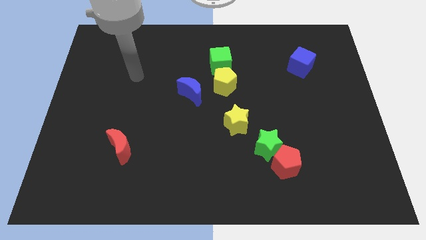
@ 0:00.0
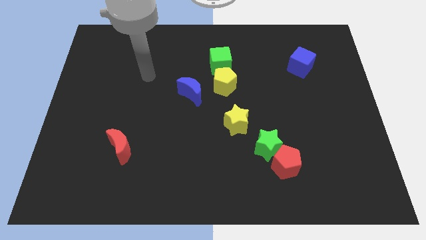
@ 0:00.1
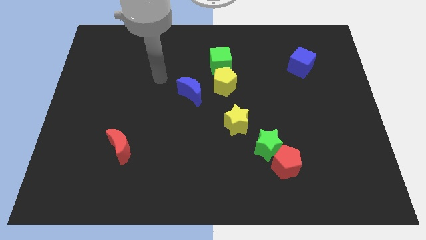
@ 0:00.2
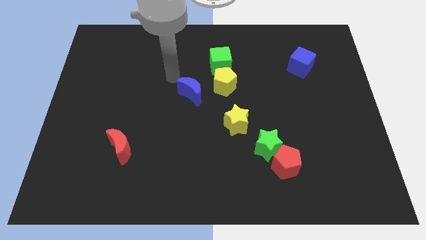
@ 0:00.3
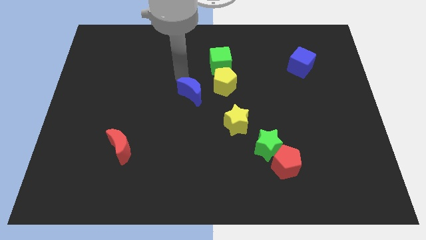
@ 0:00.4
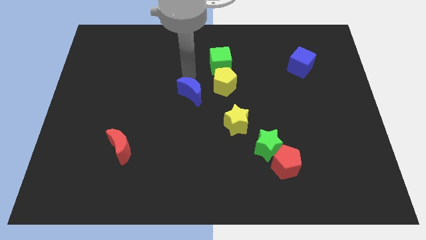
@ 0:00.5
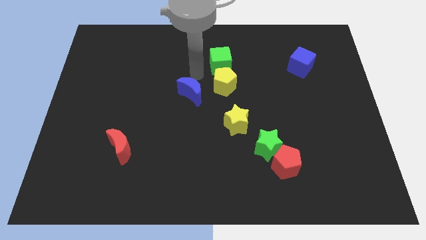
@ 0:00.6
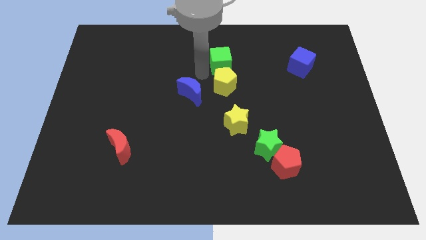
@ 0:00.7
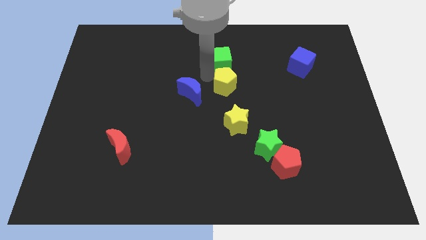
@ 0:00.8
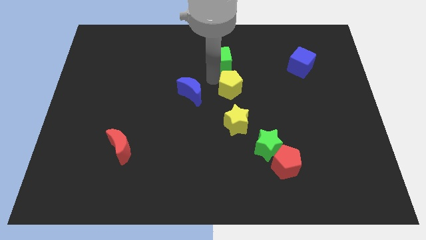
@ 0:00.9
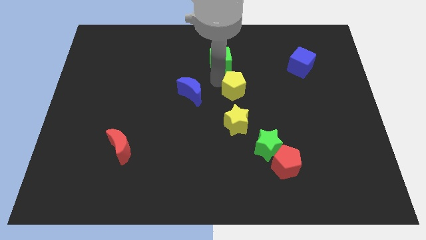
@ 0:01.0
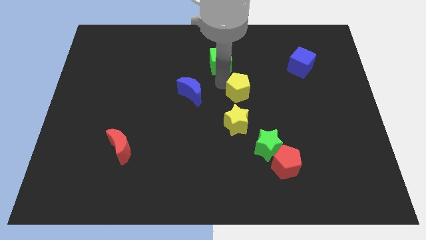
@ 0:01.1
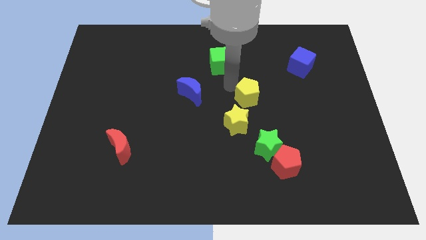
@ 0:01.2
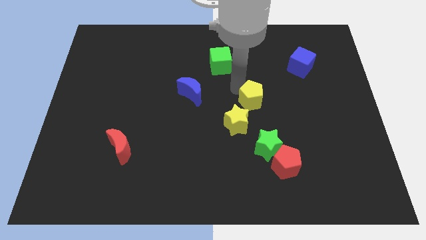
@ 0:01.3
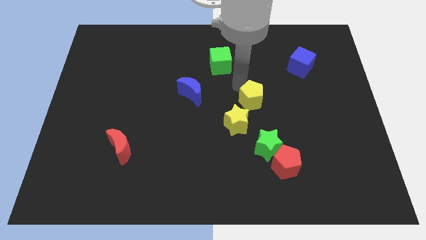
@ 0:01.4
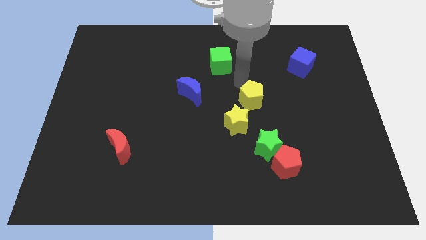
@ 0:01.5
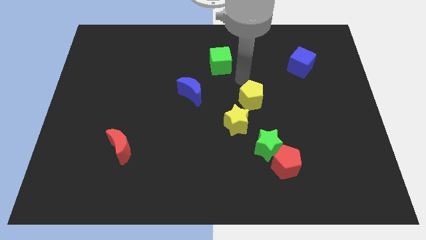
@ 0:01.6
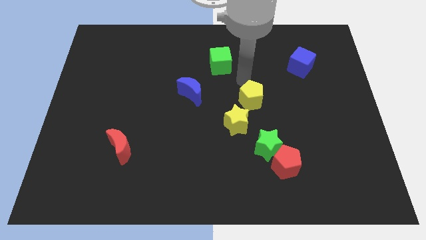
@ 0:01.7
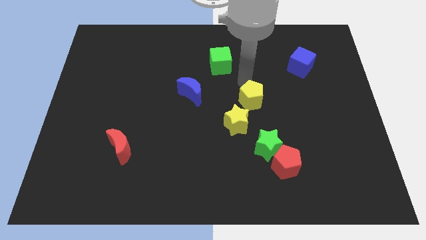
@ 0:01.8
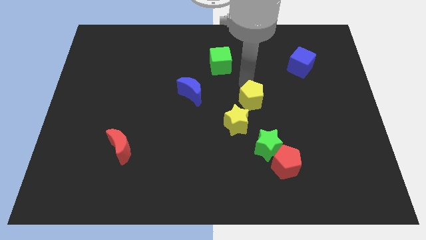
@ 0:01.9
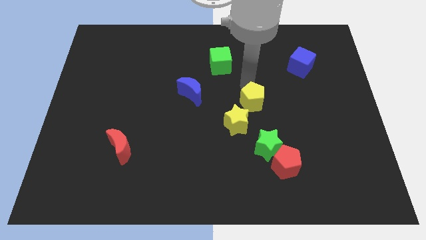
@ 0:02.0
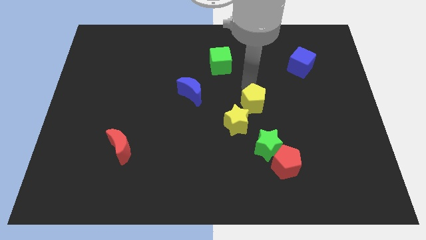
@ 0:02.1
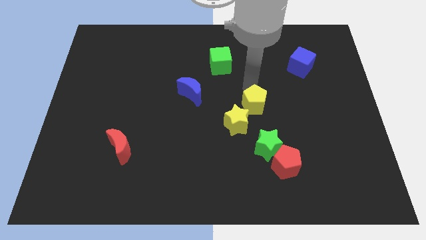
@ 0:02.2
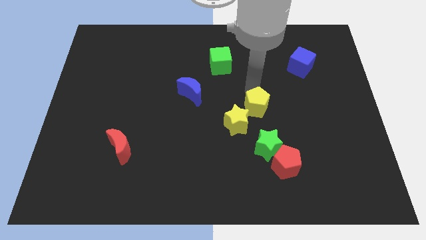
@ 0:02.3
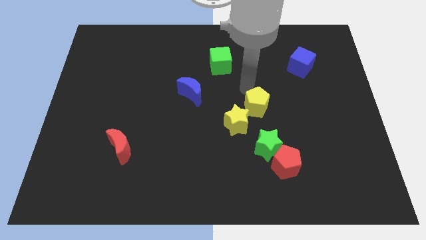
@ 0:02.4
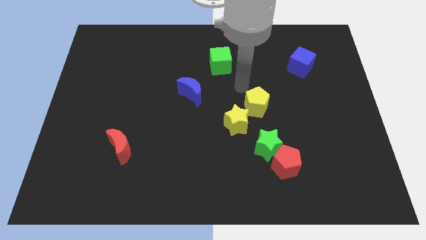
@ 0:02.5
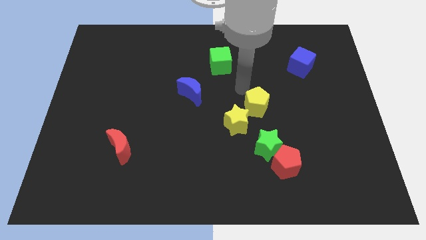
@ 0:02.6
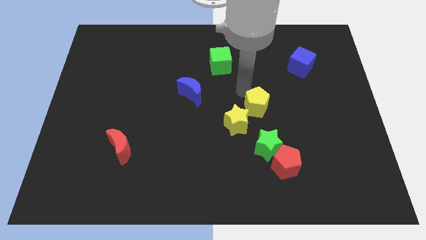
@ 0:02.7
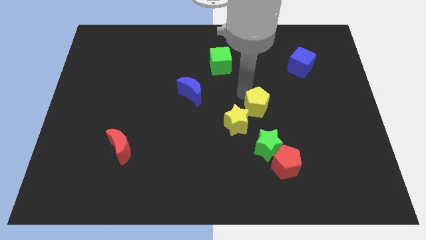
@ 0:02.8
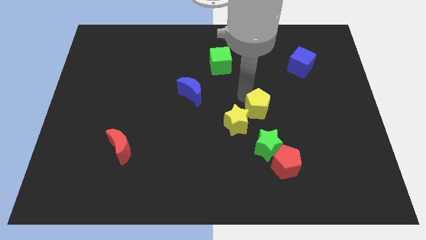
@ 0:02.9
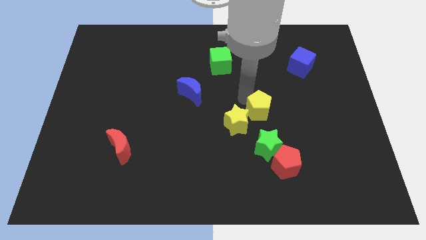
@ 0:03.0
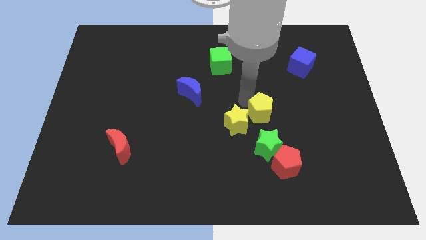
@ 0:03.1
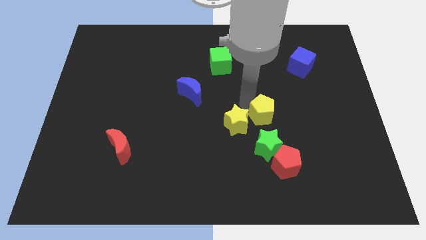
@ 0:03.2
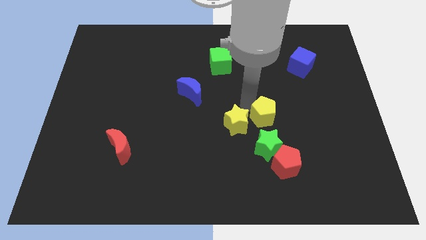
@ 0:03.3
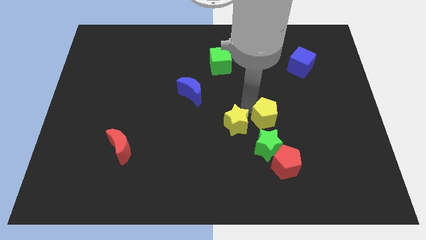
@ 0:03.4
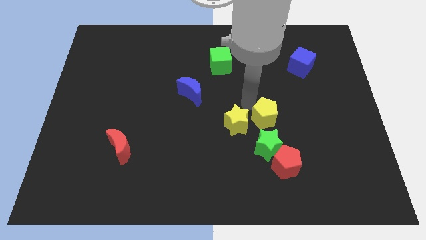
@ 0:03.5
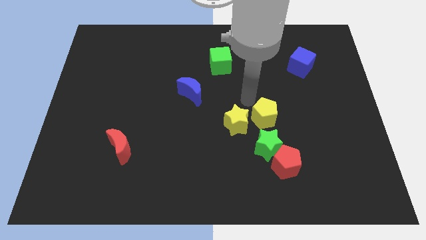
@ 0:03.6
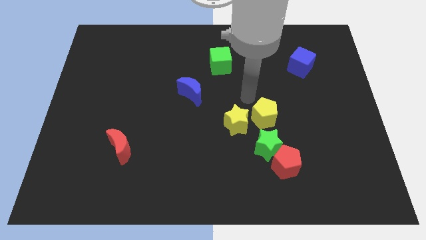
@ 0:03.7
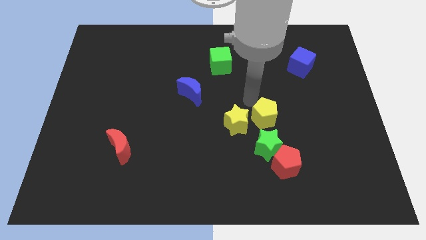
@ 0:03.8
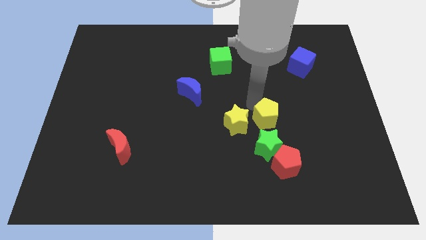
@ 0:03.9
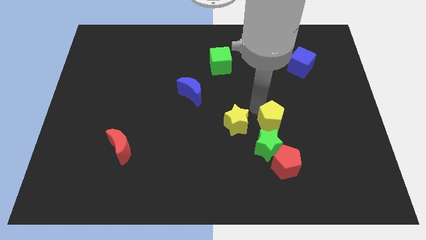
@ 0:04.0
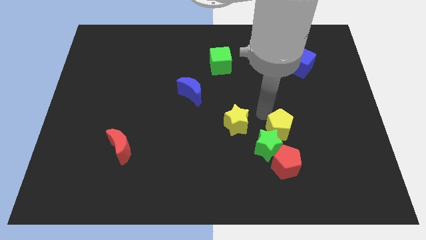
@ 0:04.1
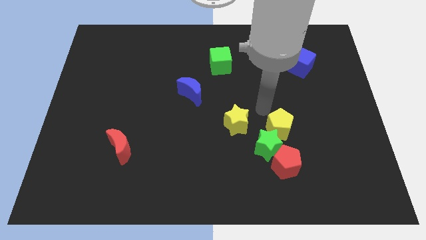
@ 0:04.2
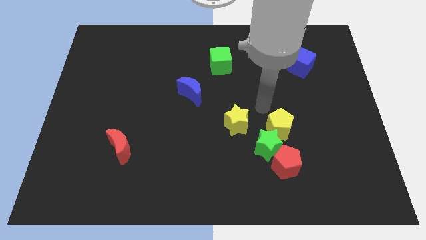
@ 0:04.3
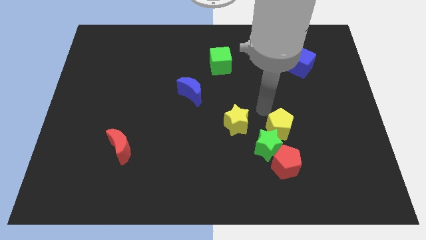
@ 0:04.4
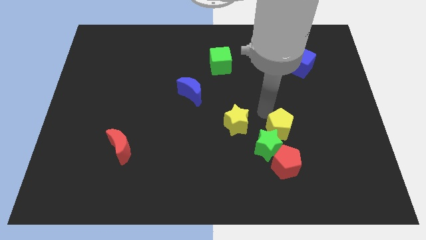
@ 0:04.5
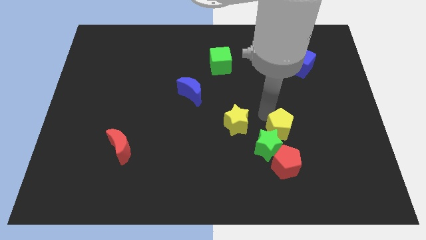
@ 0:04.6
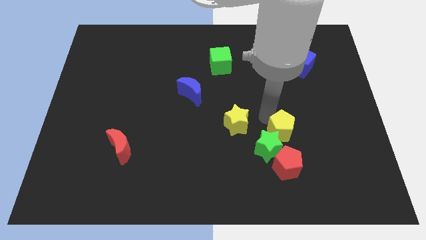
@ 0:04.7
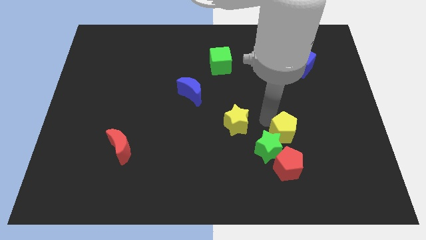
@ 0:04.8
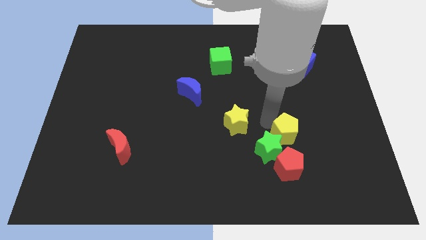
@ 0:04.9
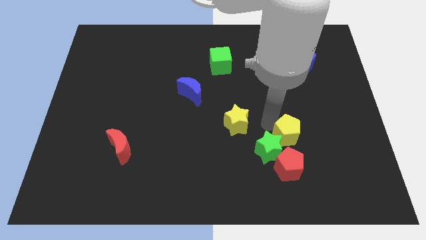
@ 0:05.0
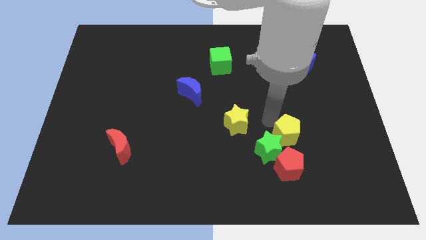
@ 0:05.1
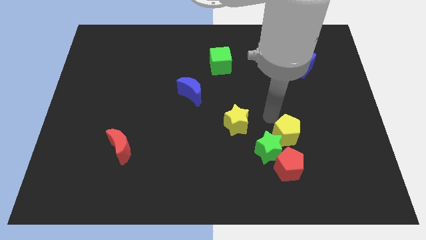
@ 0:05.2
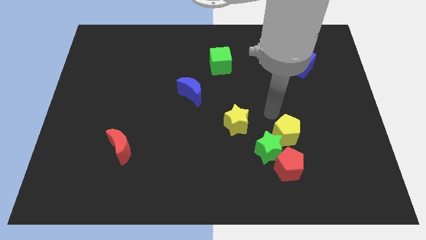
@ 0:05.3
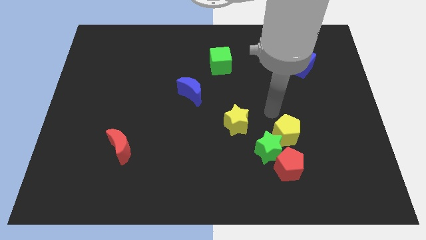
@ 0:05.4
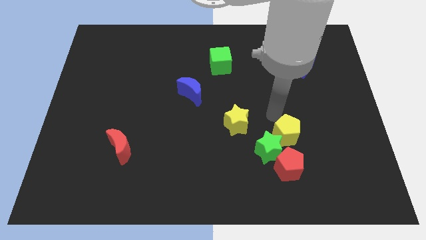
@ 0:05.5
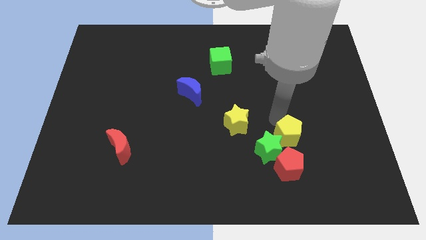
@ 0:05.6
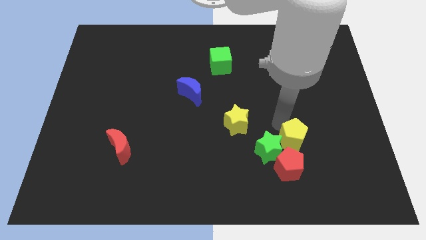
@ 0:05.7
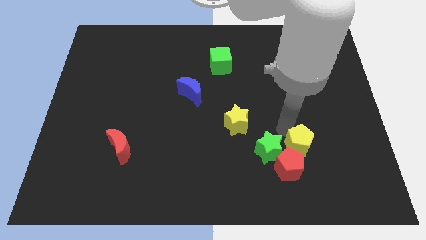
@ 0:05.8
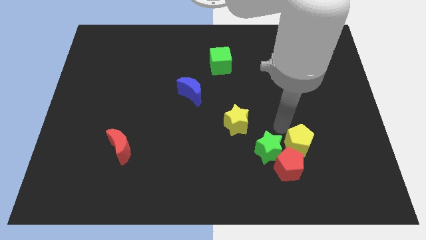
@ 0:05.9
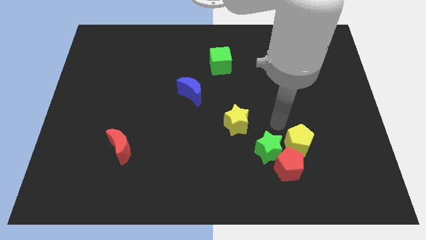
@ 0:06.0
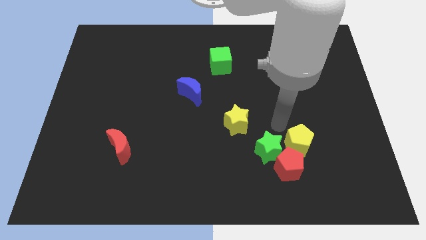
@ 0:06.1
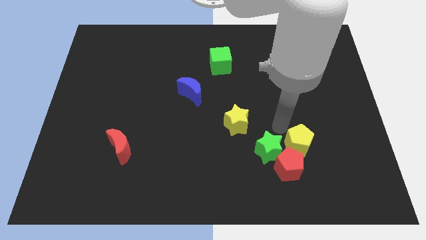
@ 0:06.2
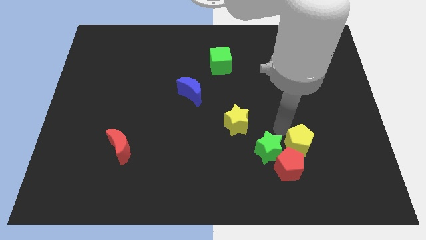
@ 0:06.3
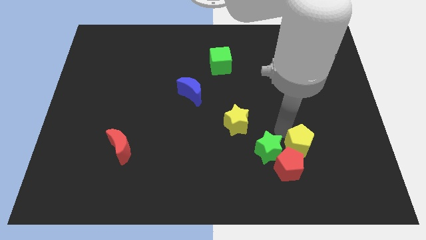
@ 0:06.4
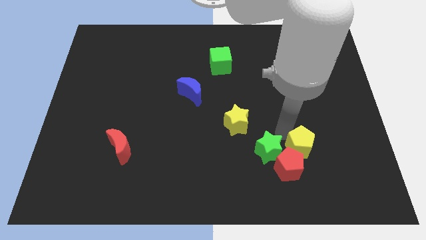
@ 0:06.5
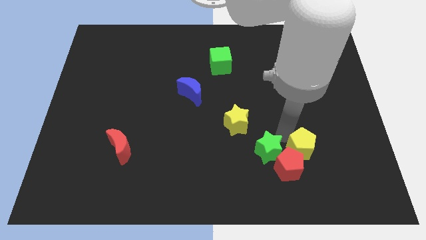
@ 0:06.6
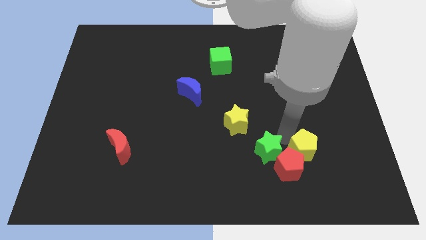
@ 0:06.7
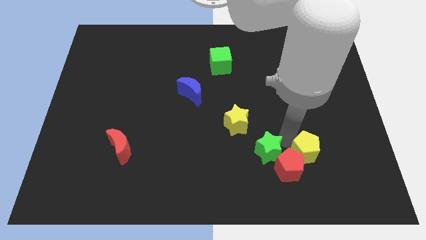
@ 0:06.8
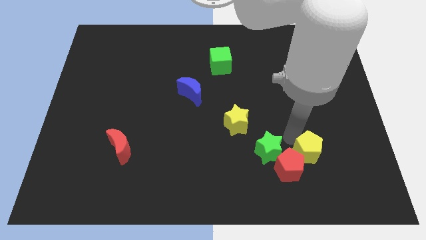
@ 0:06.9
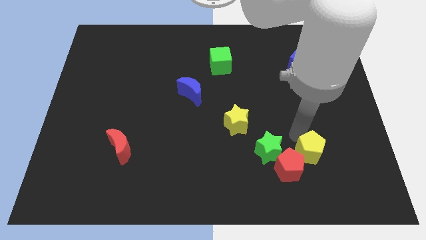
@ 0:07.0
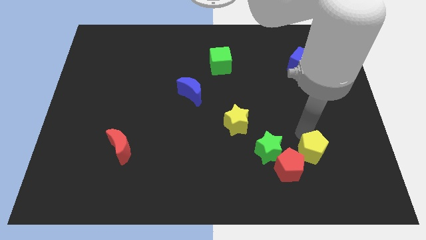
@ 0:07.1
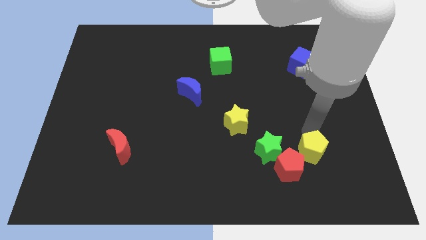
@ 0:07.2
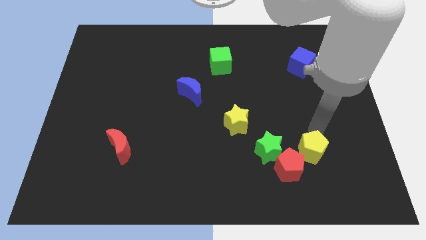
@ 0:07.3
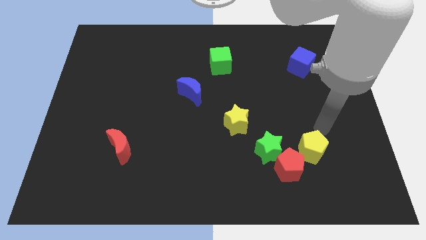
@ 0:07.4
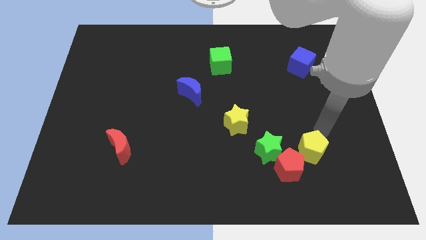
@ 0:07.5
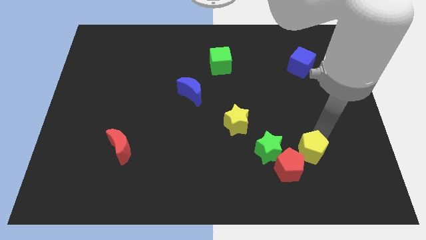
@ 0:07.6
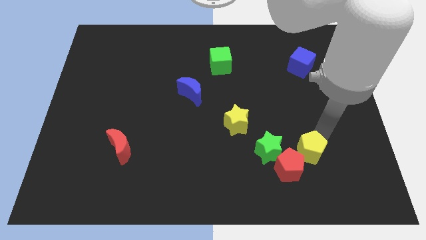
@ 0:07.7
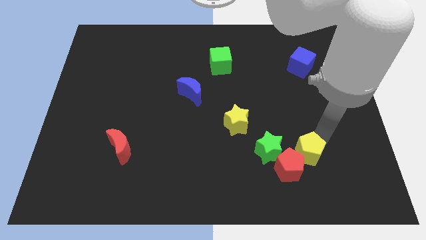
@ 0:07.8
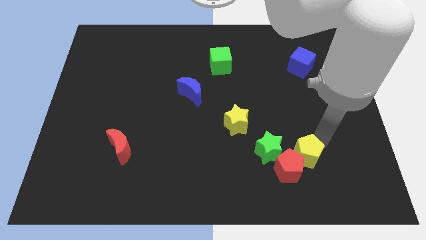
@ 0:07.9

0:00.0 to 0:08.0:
slide the yellow pentagon diagonally down and to the right of the green star

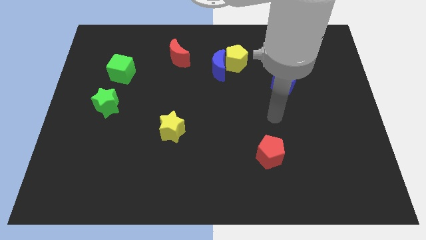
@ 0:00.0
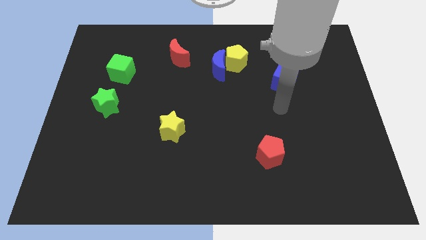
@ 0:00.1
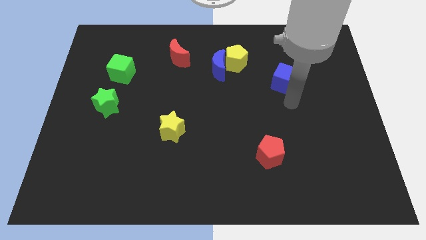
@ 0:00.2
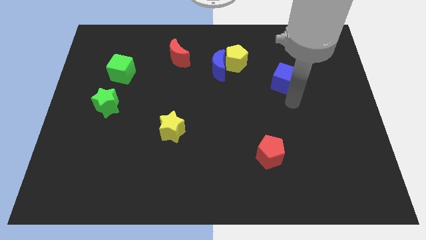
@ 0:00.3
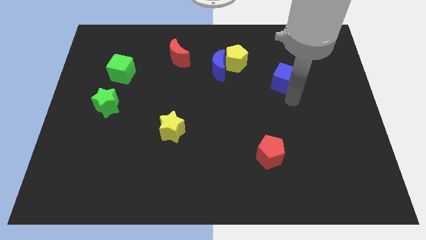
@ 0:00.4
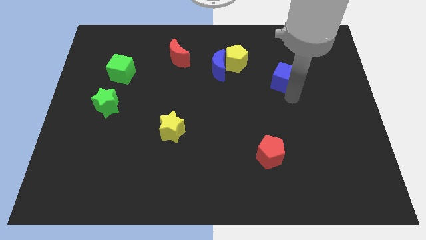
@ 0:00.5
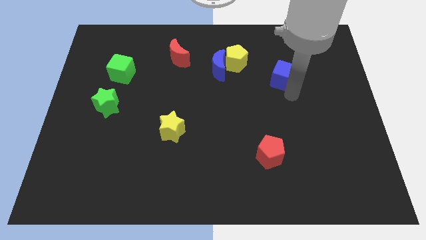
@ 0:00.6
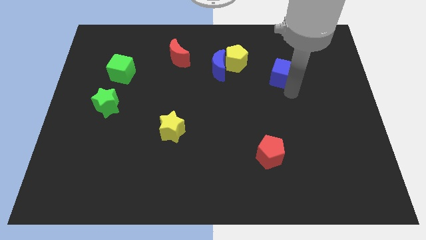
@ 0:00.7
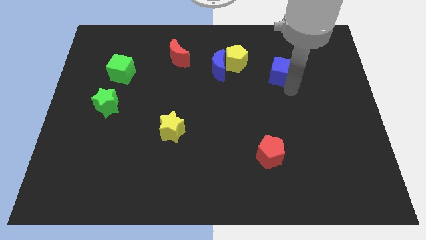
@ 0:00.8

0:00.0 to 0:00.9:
slide the blue cube just right of the yellow pentagon
